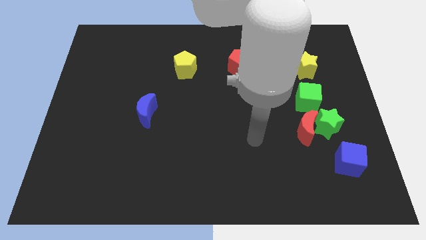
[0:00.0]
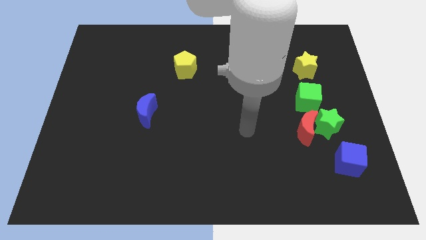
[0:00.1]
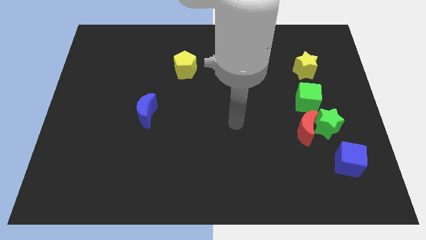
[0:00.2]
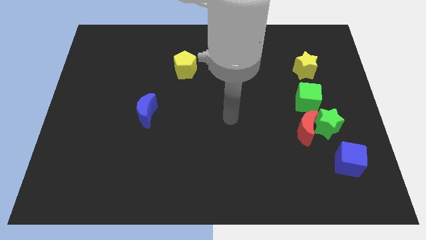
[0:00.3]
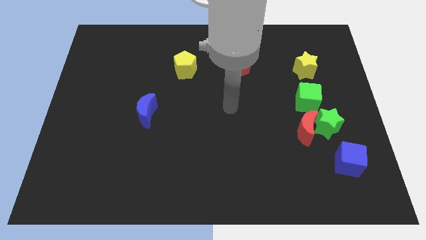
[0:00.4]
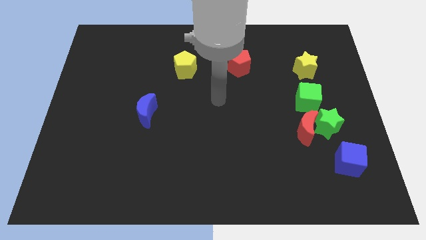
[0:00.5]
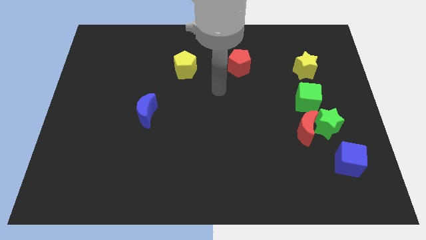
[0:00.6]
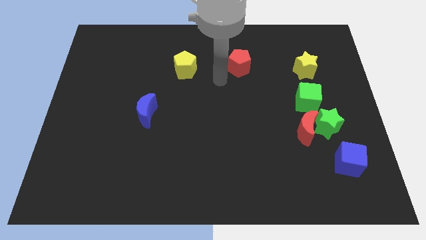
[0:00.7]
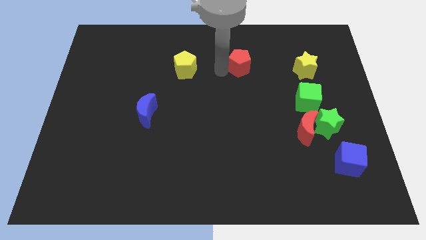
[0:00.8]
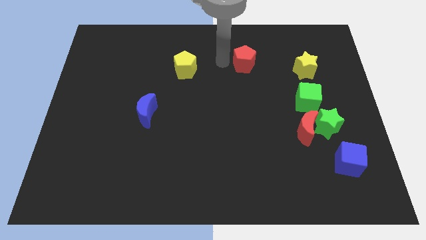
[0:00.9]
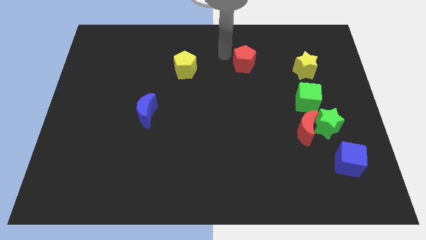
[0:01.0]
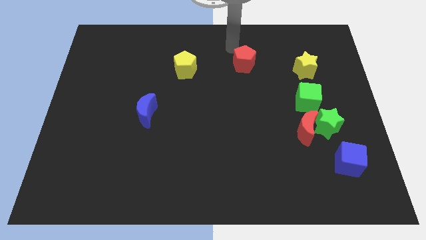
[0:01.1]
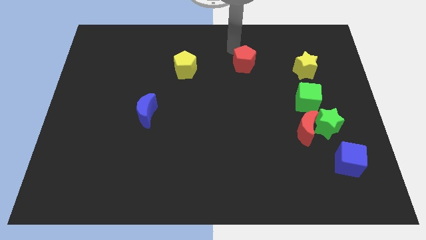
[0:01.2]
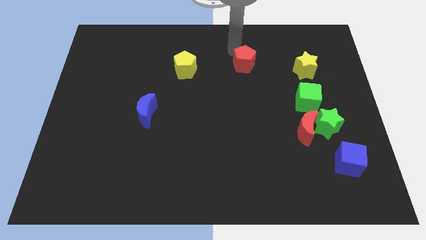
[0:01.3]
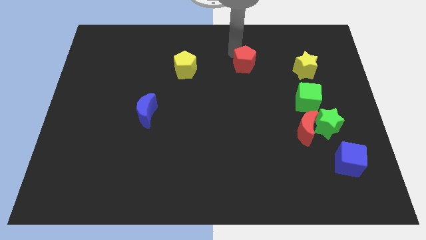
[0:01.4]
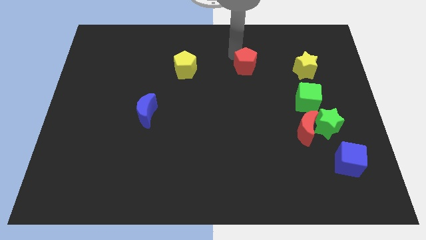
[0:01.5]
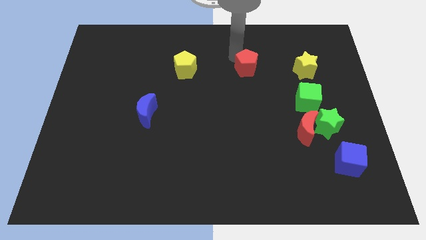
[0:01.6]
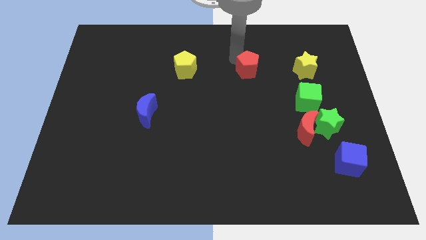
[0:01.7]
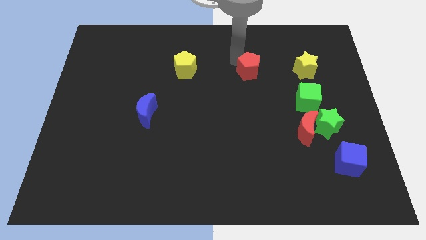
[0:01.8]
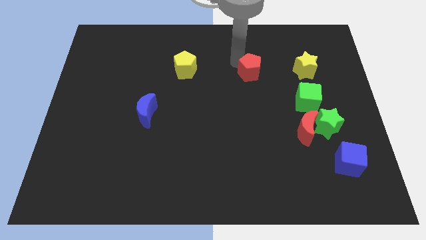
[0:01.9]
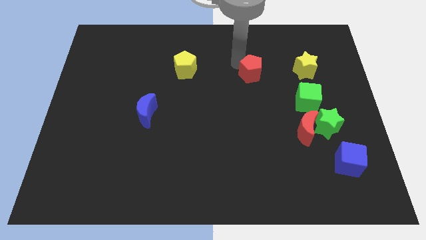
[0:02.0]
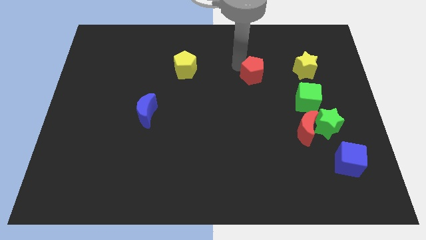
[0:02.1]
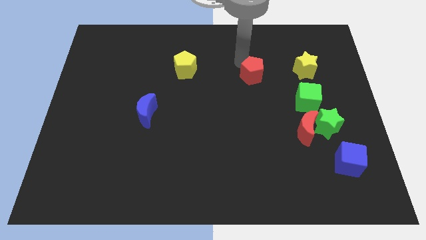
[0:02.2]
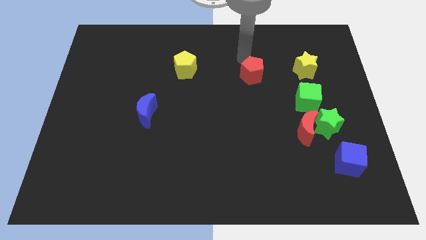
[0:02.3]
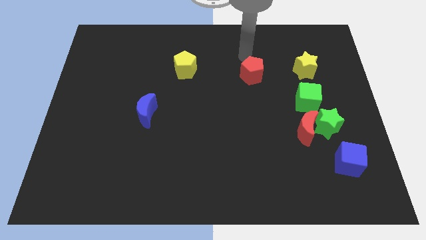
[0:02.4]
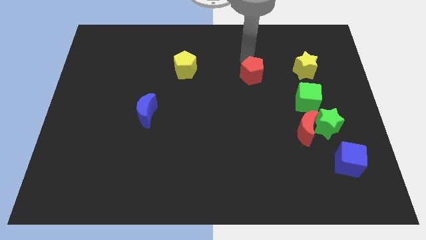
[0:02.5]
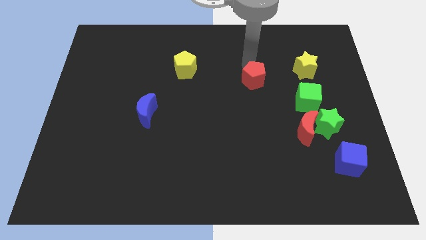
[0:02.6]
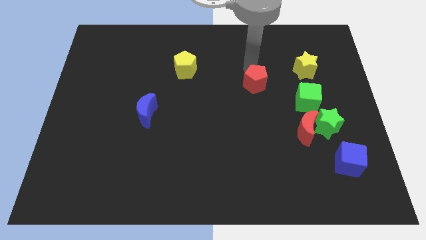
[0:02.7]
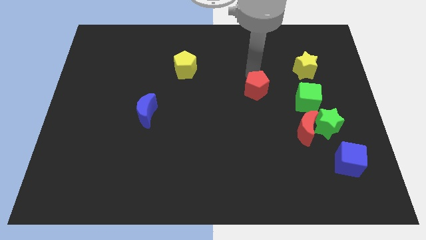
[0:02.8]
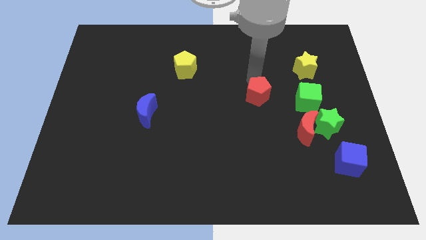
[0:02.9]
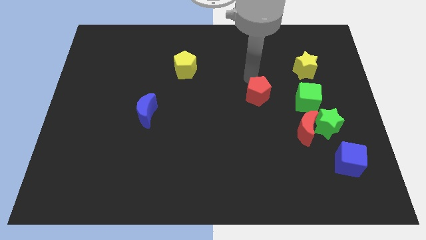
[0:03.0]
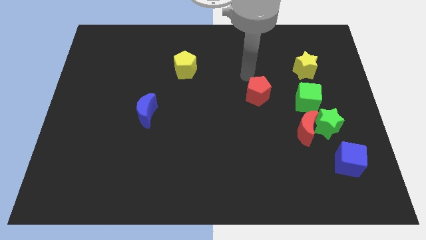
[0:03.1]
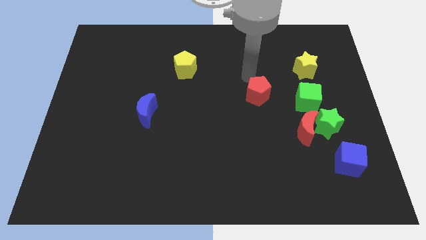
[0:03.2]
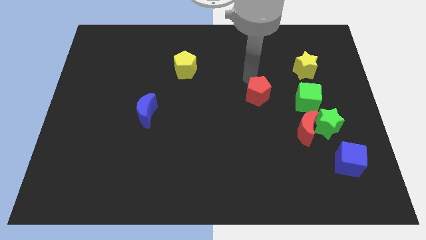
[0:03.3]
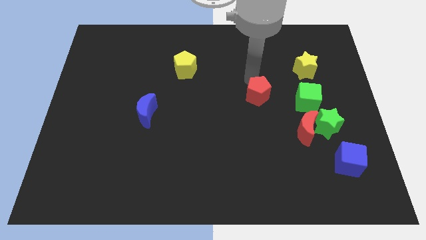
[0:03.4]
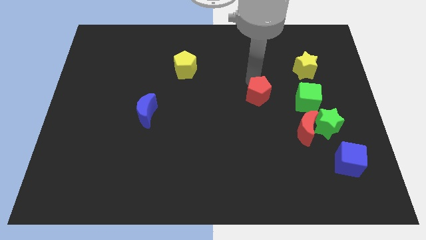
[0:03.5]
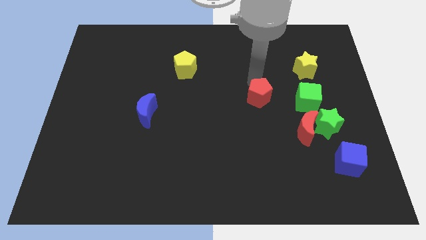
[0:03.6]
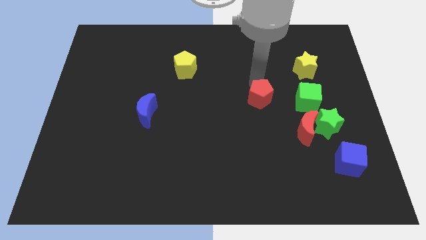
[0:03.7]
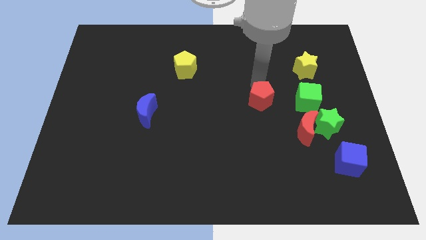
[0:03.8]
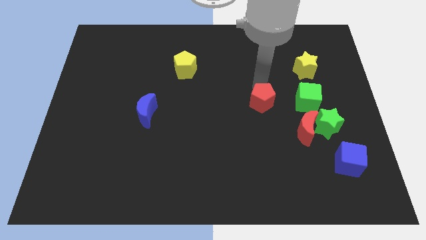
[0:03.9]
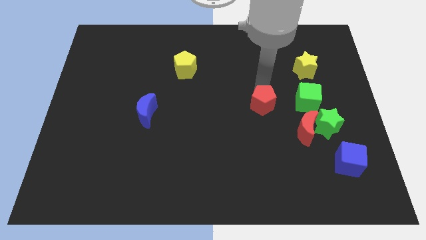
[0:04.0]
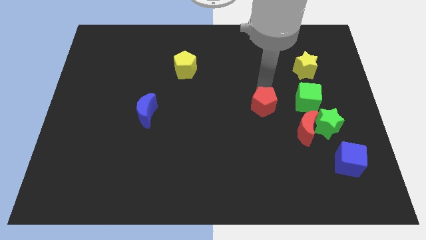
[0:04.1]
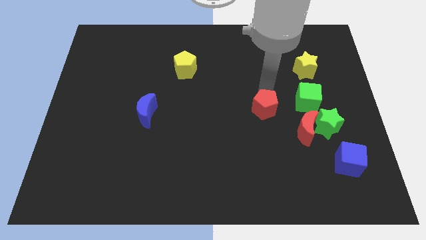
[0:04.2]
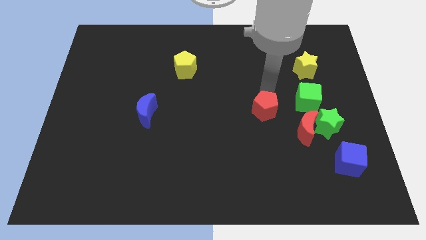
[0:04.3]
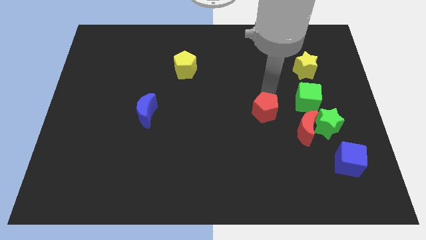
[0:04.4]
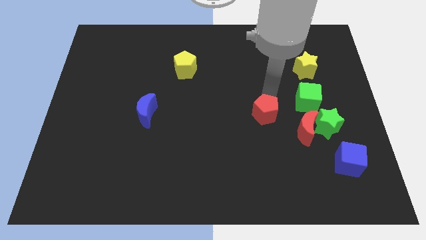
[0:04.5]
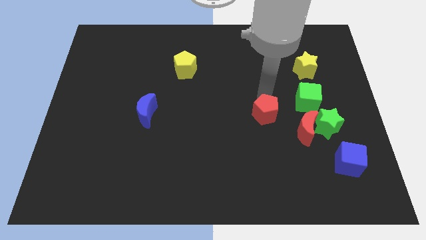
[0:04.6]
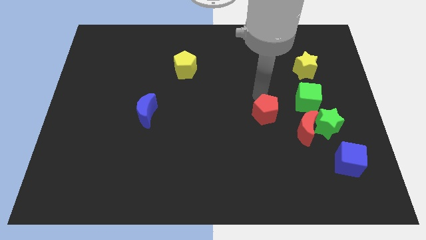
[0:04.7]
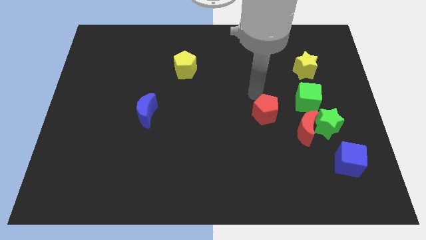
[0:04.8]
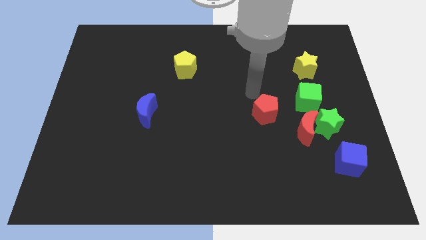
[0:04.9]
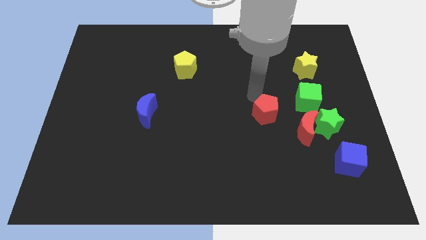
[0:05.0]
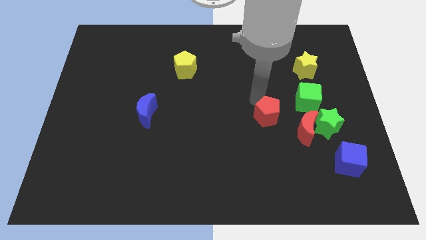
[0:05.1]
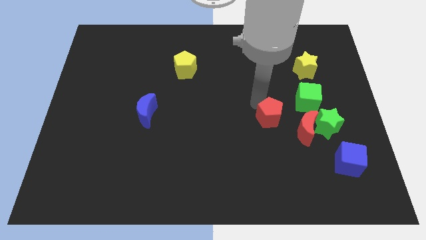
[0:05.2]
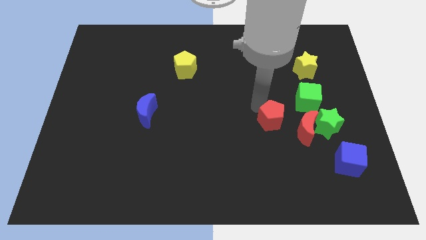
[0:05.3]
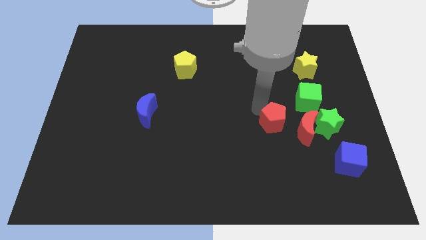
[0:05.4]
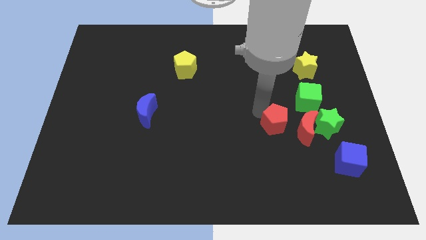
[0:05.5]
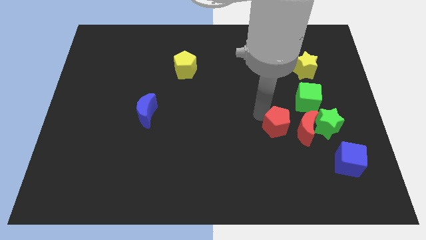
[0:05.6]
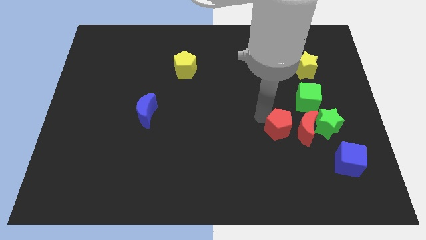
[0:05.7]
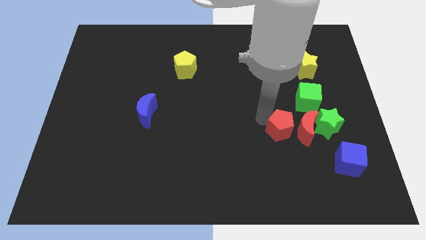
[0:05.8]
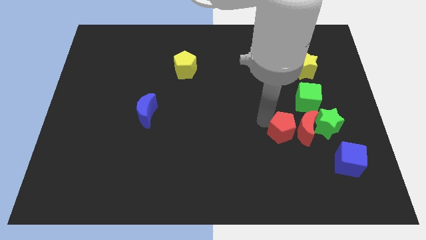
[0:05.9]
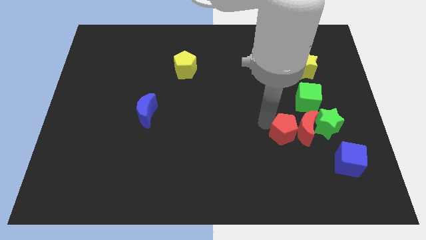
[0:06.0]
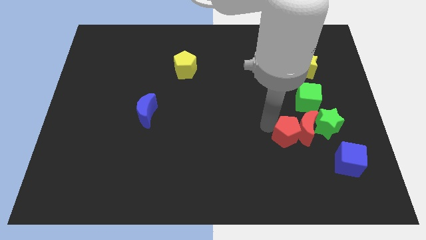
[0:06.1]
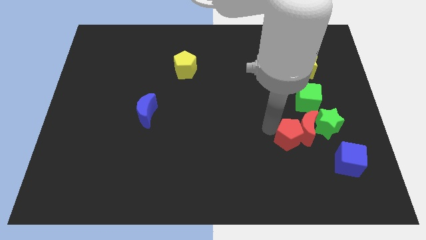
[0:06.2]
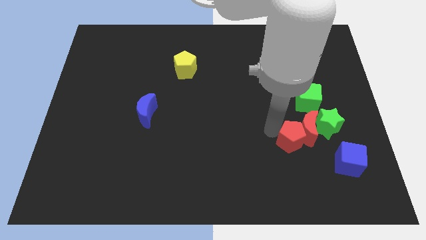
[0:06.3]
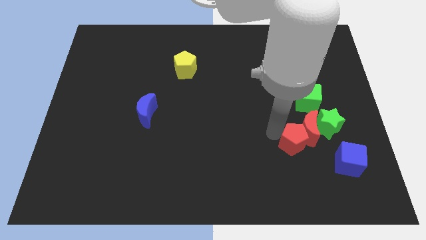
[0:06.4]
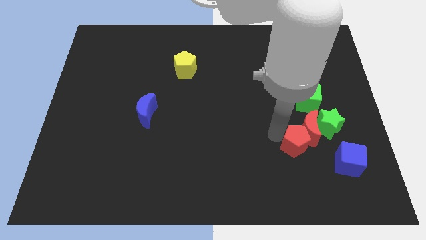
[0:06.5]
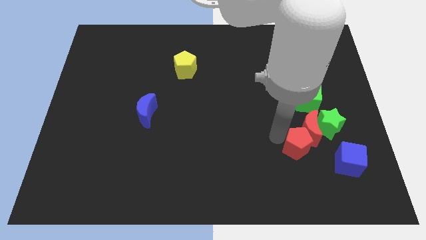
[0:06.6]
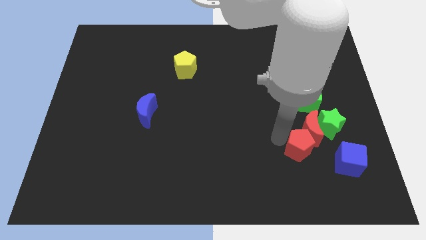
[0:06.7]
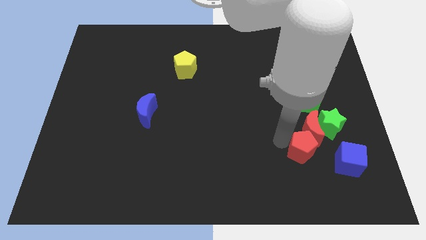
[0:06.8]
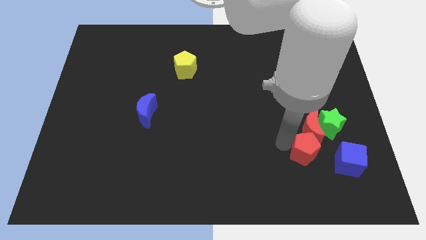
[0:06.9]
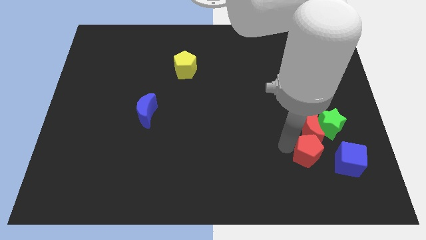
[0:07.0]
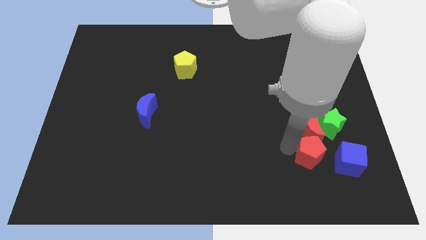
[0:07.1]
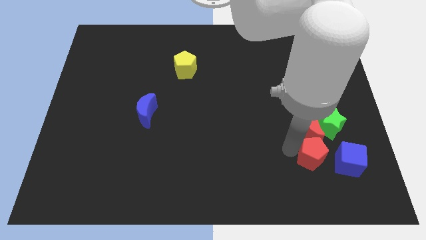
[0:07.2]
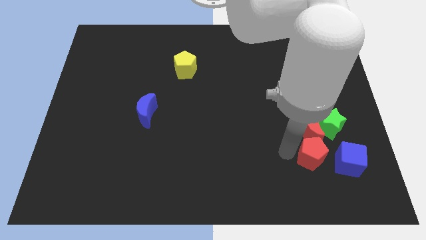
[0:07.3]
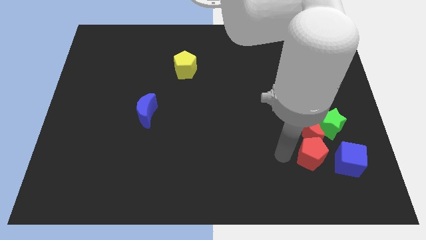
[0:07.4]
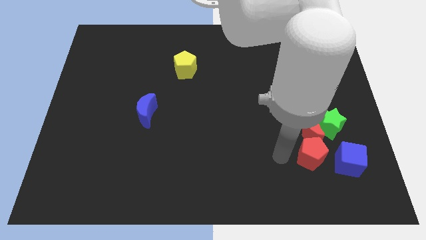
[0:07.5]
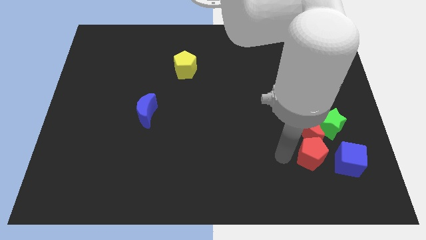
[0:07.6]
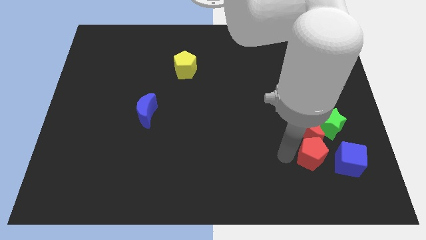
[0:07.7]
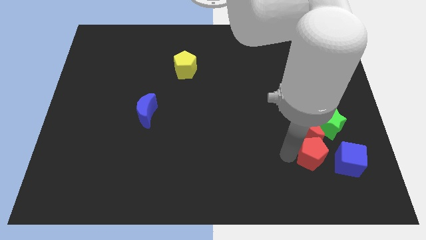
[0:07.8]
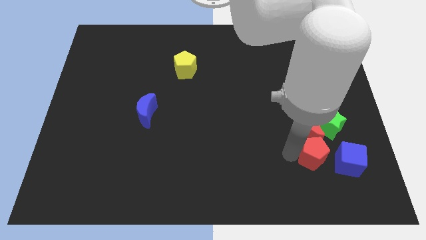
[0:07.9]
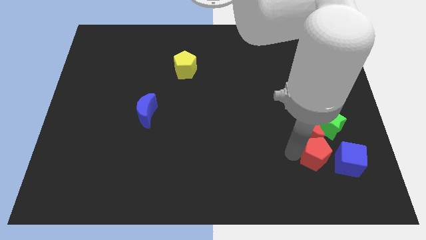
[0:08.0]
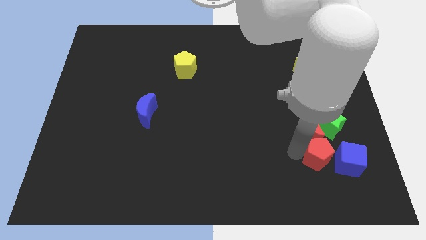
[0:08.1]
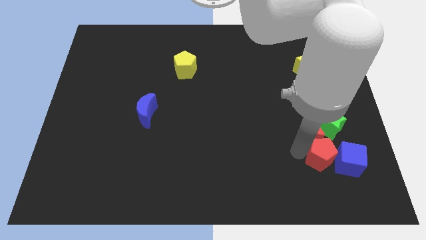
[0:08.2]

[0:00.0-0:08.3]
push the red pentagon close to the blue cube
